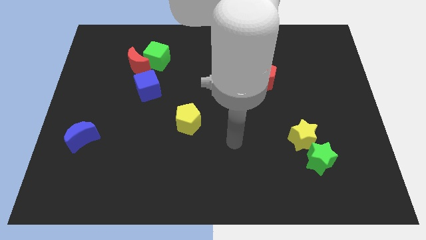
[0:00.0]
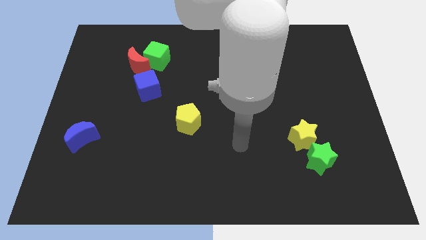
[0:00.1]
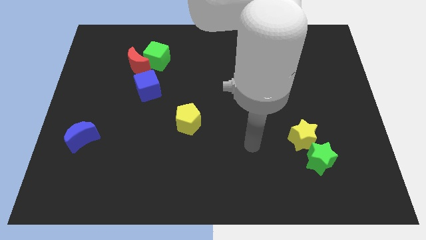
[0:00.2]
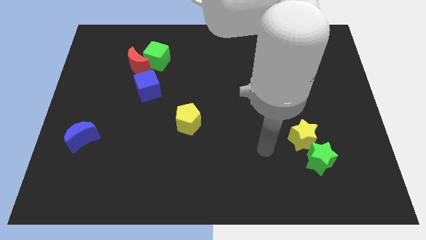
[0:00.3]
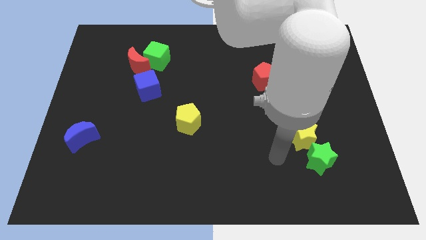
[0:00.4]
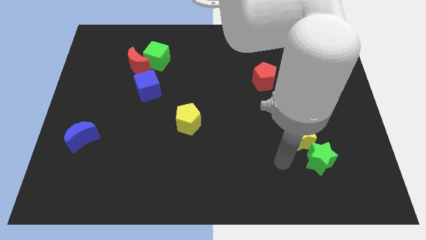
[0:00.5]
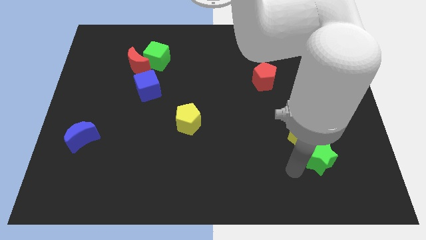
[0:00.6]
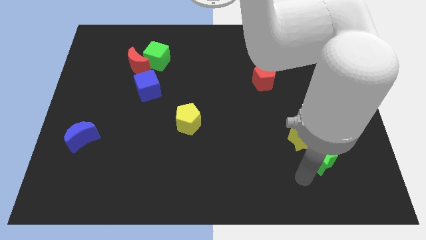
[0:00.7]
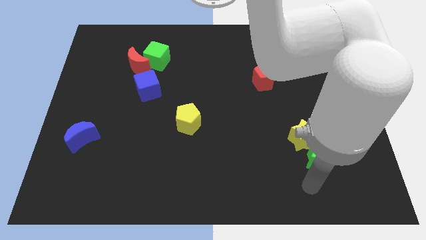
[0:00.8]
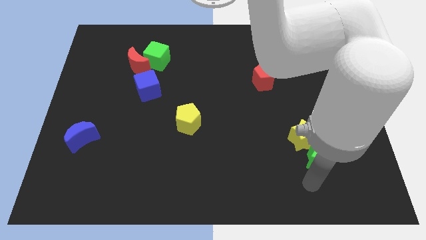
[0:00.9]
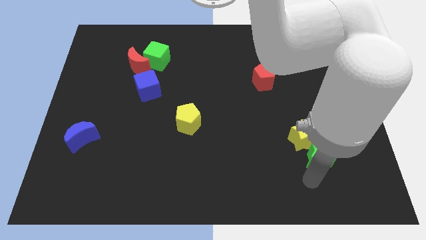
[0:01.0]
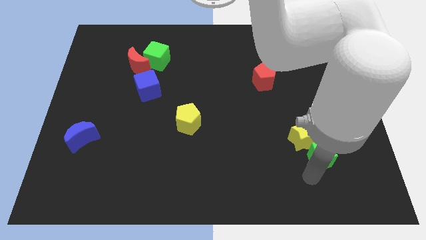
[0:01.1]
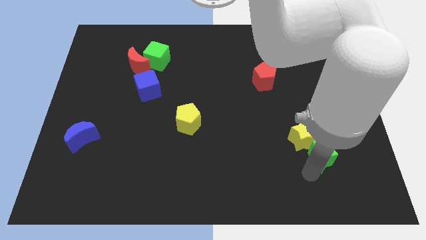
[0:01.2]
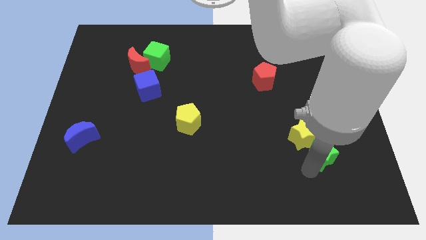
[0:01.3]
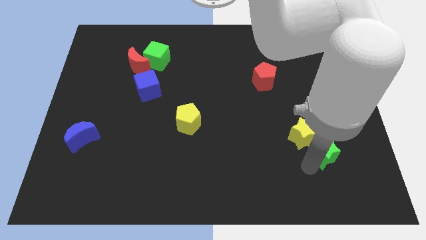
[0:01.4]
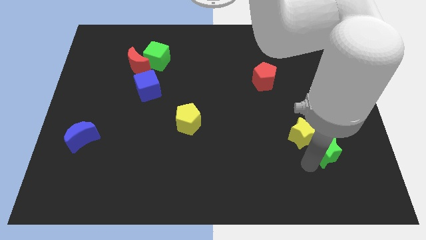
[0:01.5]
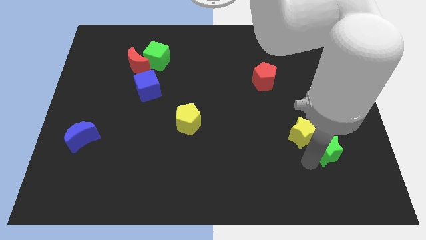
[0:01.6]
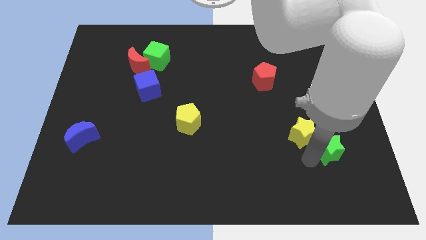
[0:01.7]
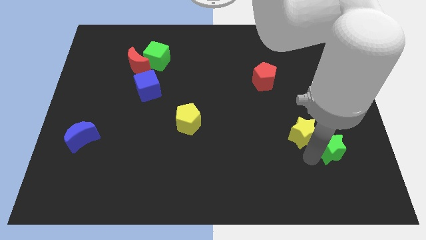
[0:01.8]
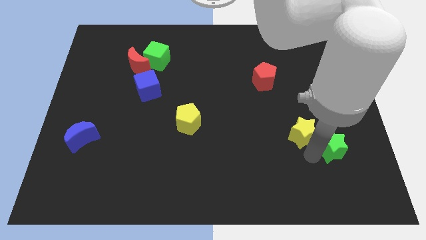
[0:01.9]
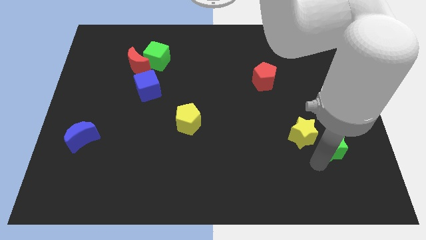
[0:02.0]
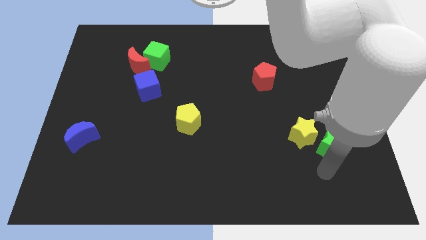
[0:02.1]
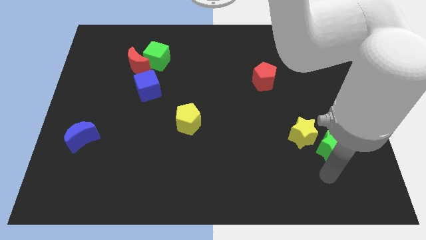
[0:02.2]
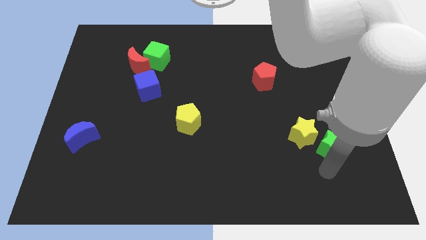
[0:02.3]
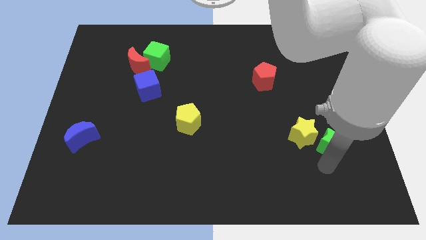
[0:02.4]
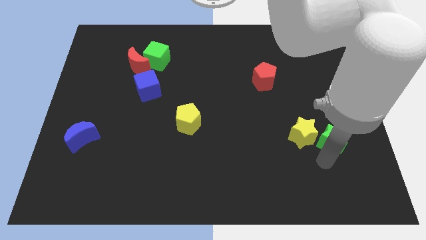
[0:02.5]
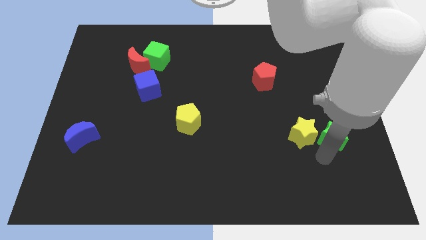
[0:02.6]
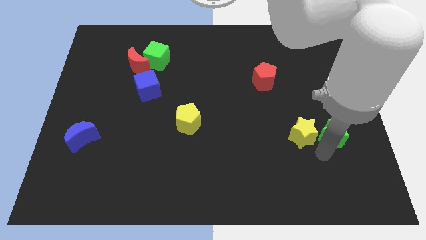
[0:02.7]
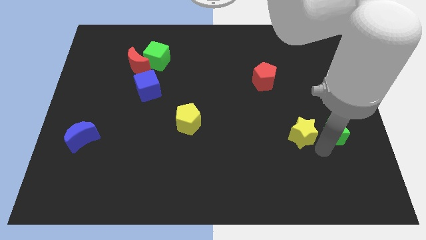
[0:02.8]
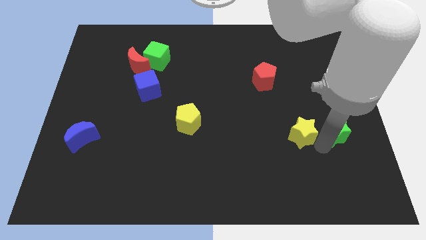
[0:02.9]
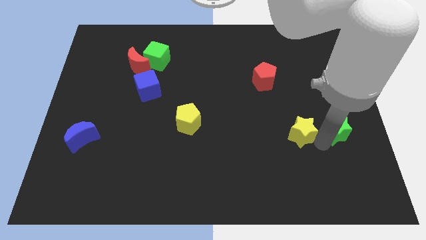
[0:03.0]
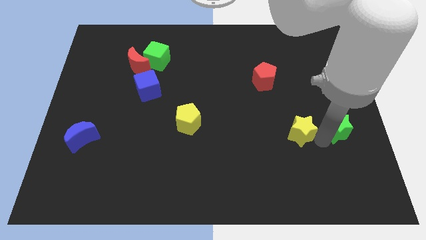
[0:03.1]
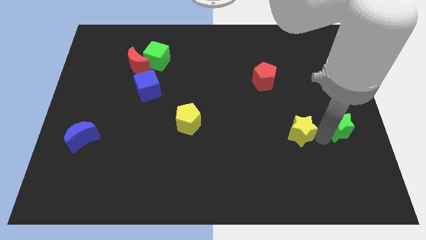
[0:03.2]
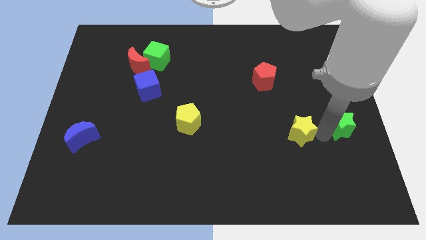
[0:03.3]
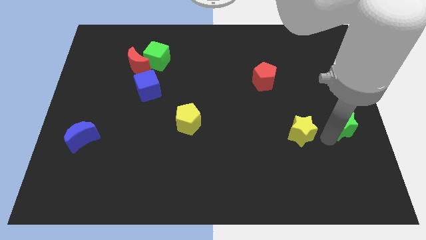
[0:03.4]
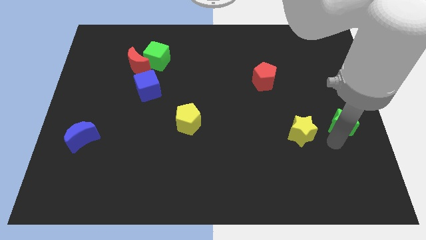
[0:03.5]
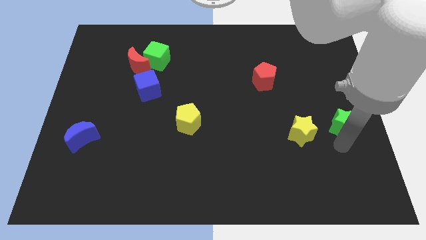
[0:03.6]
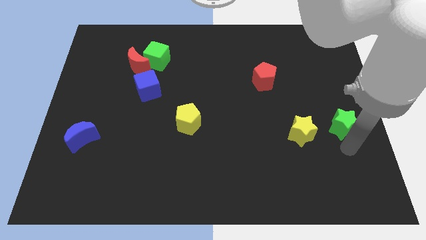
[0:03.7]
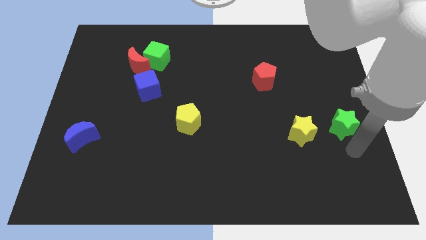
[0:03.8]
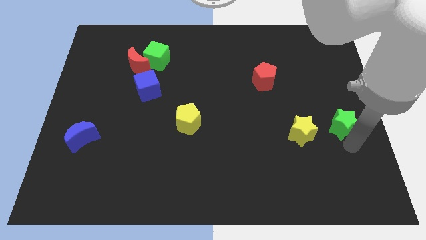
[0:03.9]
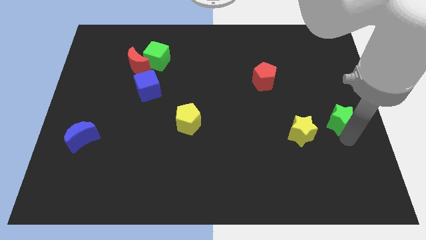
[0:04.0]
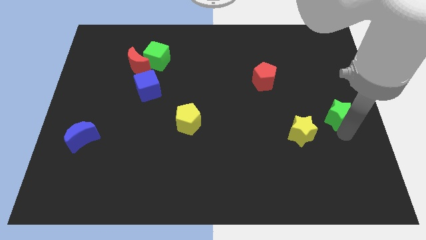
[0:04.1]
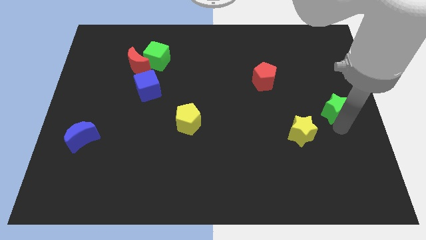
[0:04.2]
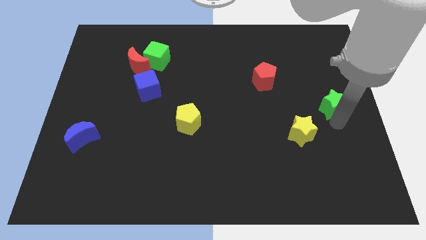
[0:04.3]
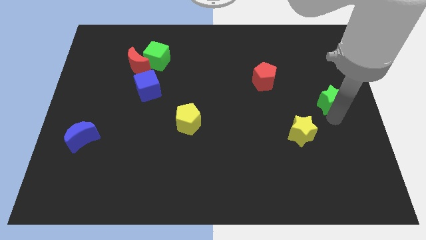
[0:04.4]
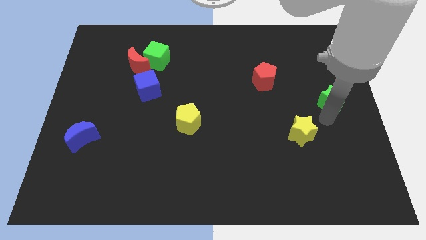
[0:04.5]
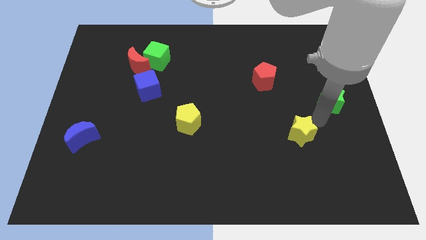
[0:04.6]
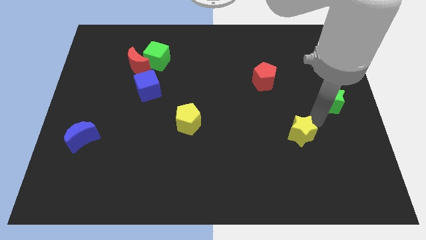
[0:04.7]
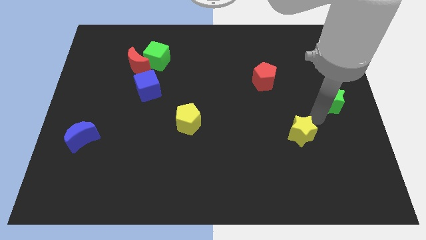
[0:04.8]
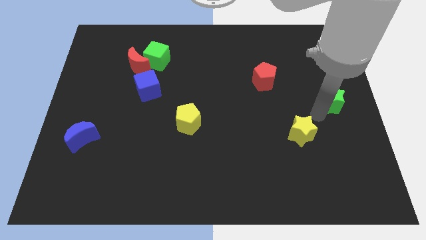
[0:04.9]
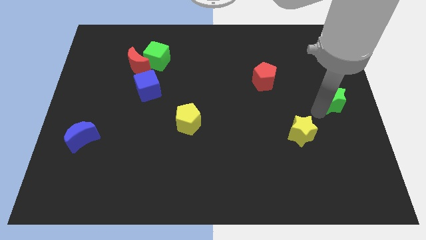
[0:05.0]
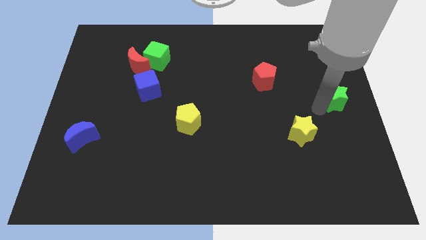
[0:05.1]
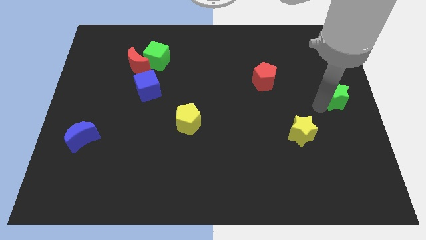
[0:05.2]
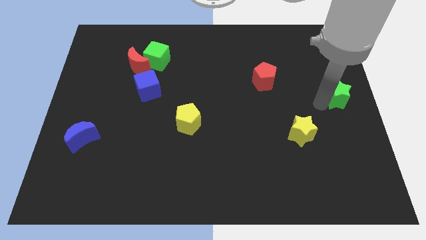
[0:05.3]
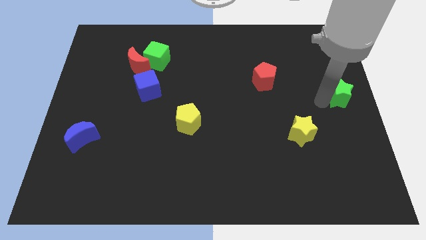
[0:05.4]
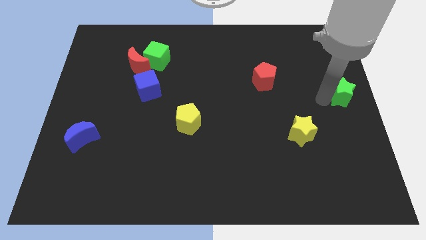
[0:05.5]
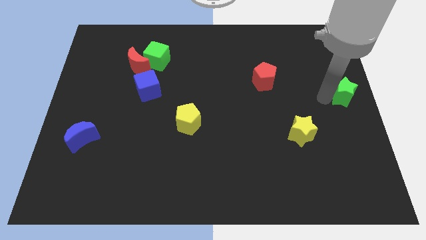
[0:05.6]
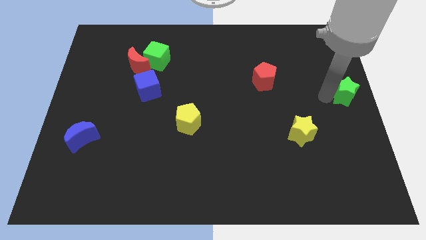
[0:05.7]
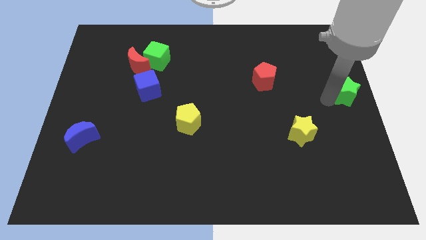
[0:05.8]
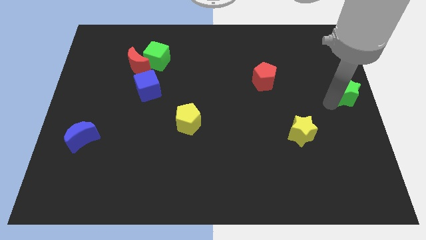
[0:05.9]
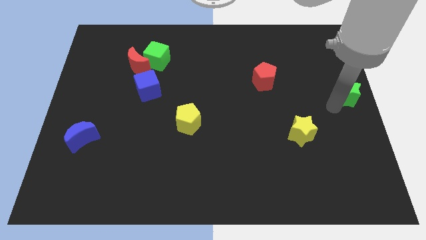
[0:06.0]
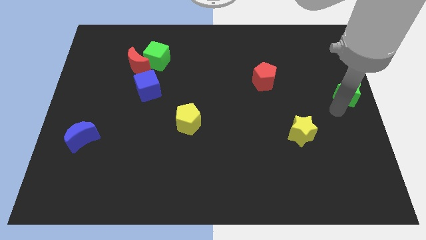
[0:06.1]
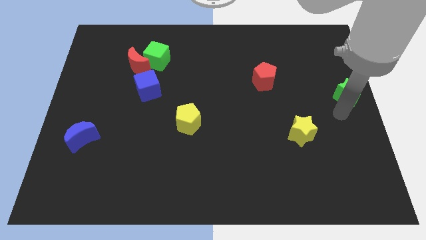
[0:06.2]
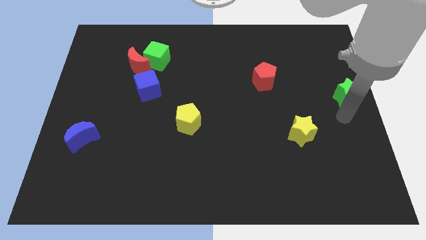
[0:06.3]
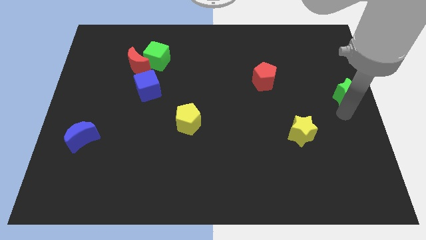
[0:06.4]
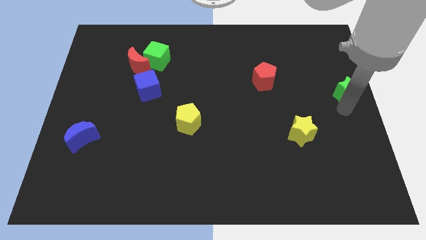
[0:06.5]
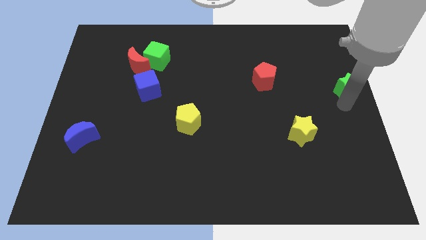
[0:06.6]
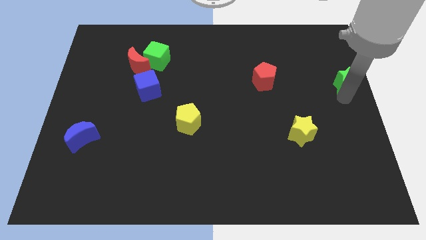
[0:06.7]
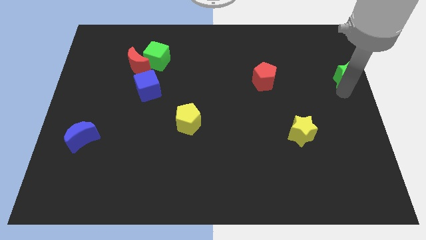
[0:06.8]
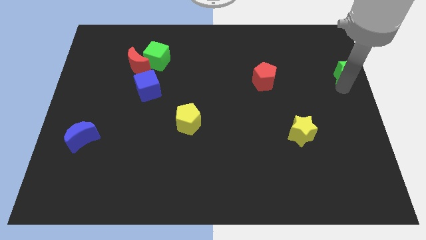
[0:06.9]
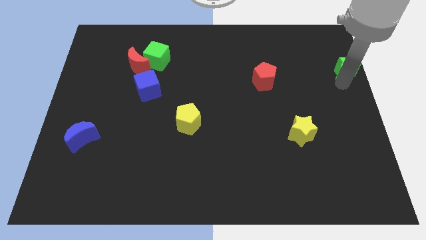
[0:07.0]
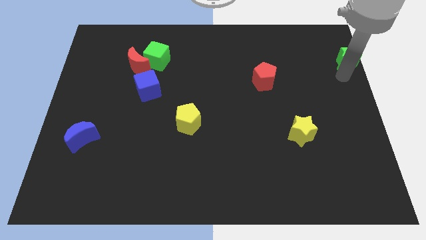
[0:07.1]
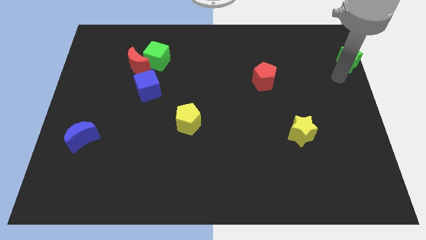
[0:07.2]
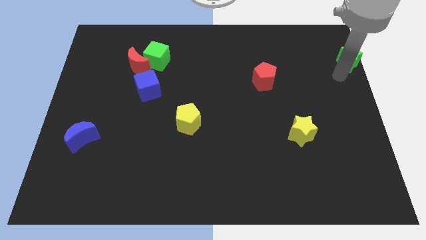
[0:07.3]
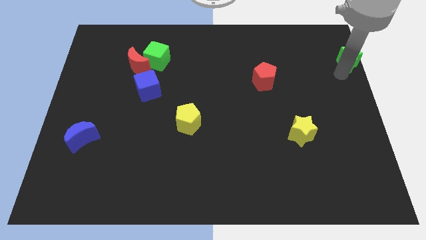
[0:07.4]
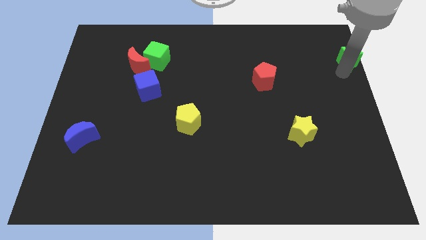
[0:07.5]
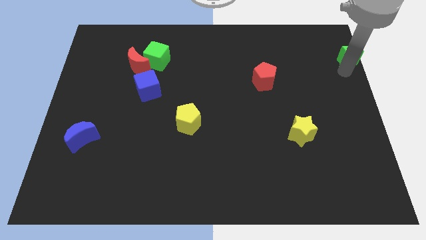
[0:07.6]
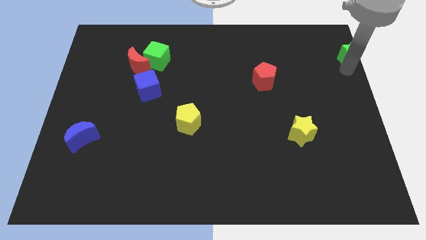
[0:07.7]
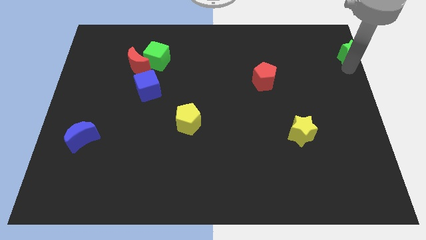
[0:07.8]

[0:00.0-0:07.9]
put the green star to the top right
